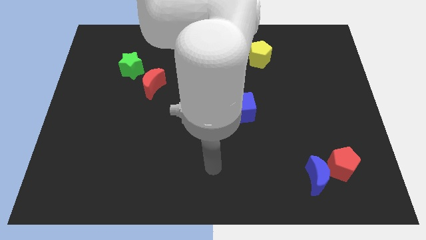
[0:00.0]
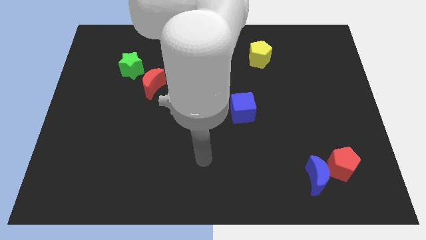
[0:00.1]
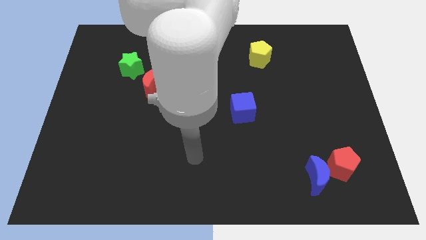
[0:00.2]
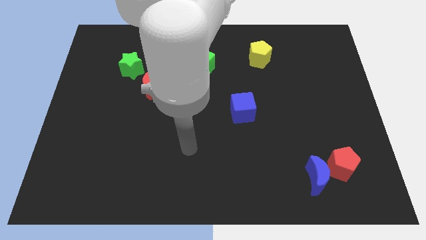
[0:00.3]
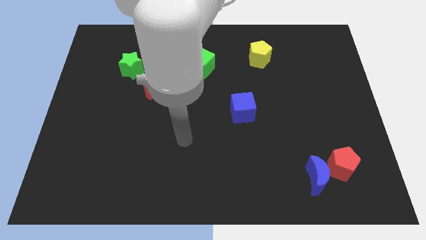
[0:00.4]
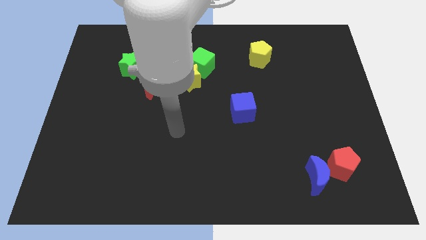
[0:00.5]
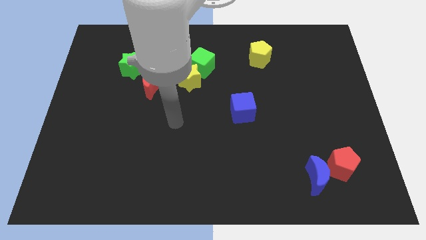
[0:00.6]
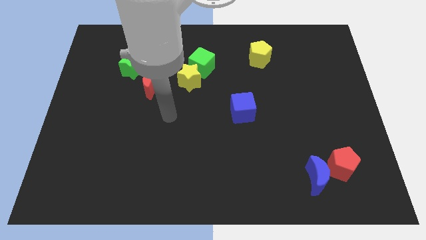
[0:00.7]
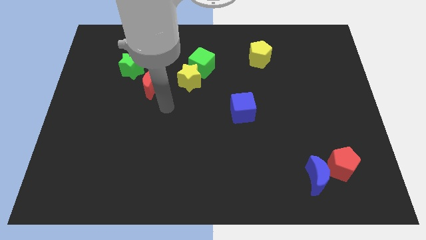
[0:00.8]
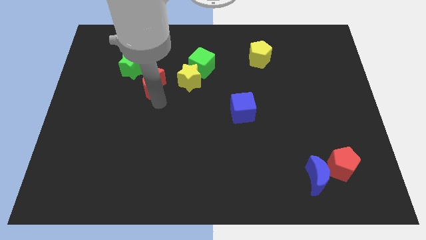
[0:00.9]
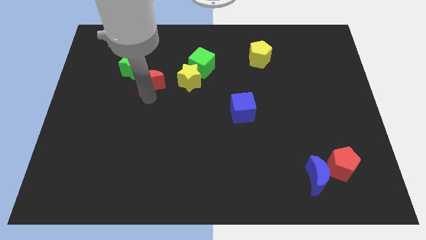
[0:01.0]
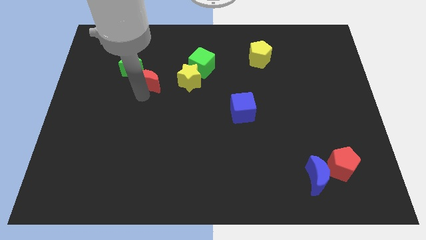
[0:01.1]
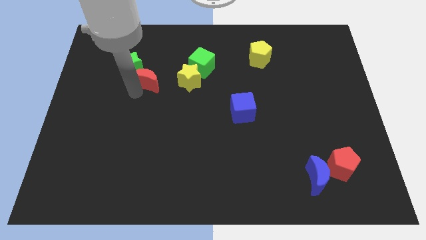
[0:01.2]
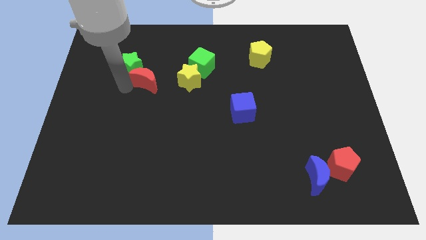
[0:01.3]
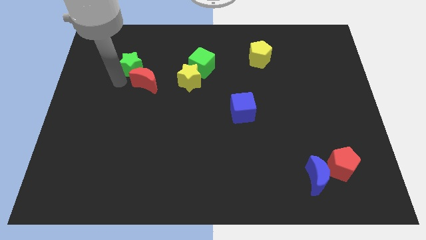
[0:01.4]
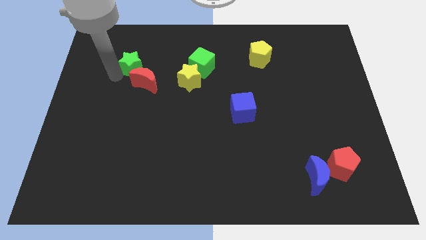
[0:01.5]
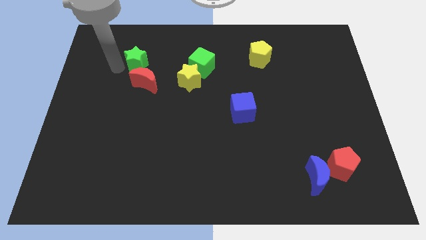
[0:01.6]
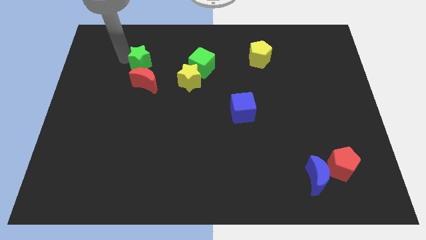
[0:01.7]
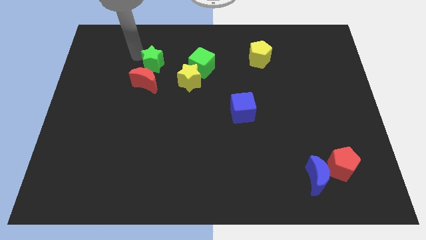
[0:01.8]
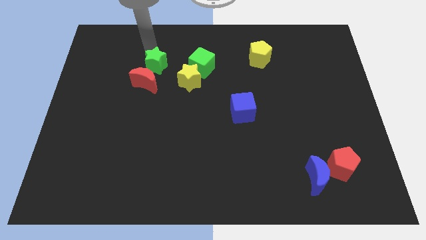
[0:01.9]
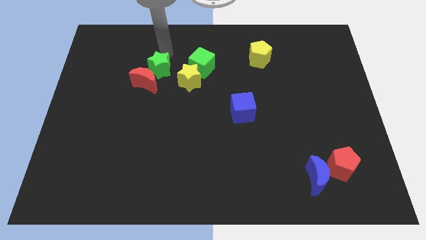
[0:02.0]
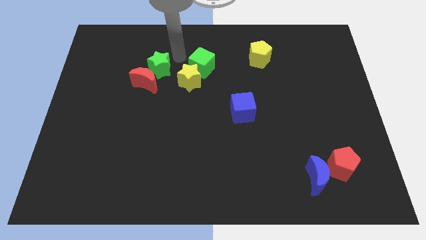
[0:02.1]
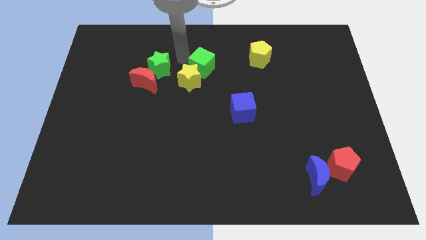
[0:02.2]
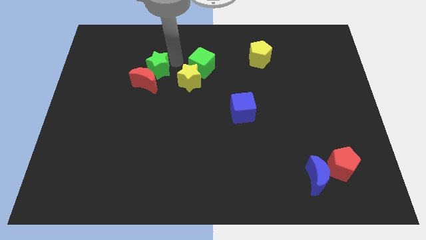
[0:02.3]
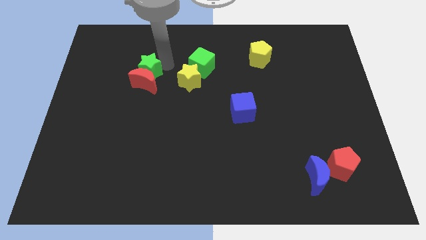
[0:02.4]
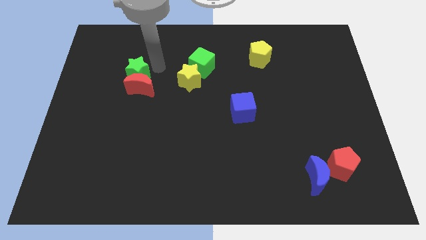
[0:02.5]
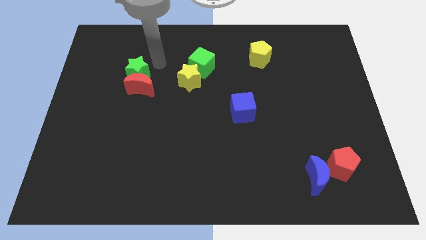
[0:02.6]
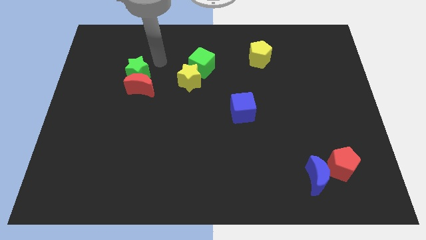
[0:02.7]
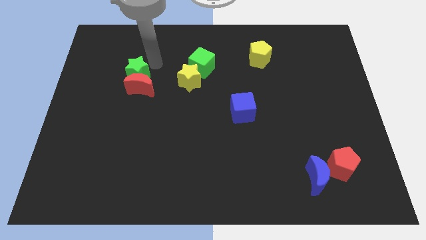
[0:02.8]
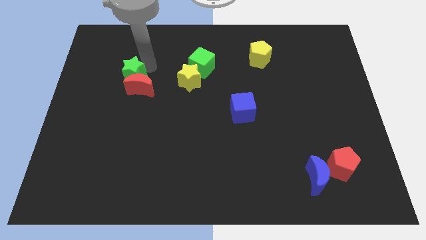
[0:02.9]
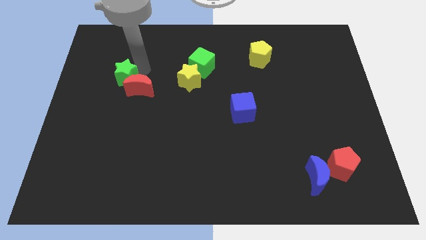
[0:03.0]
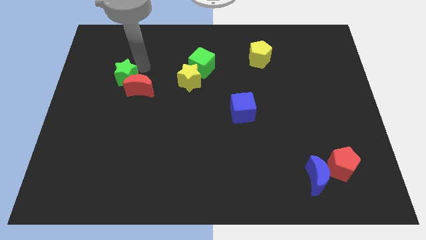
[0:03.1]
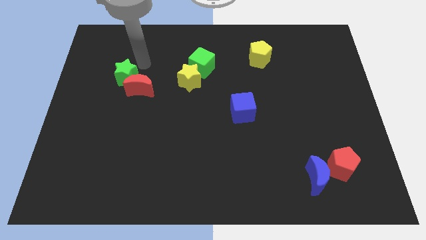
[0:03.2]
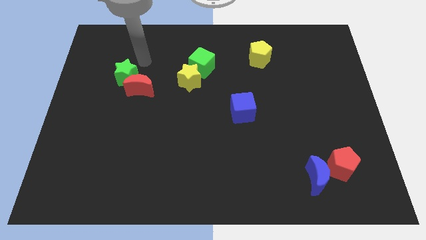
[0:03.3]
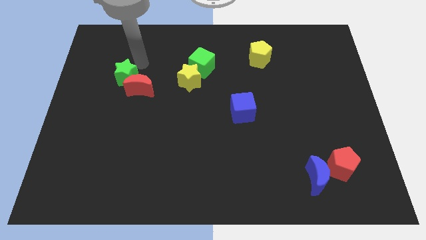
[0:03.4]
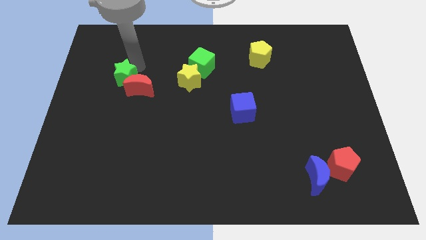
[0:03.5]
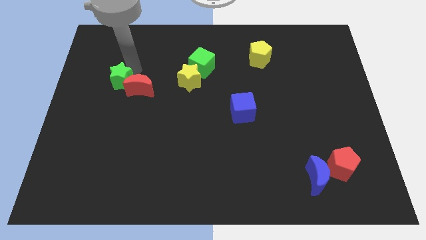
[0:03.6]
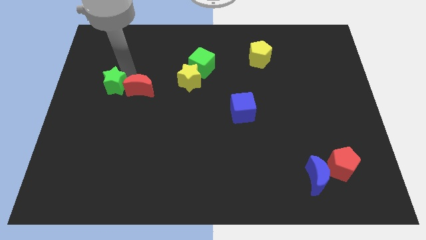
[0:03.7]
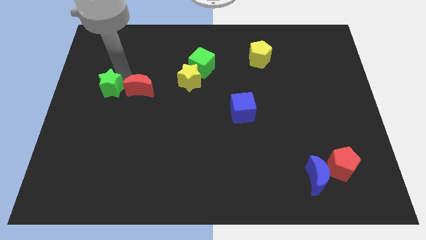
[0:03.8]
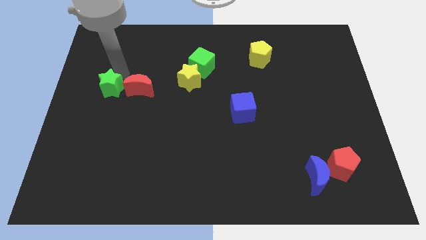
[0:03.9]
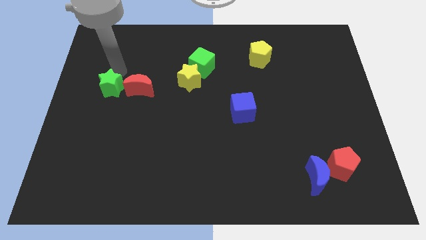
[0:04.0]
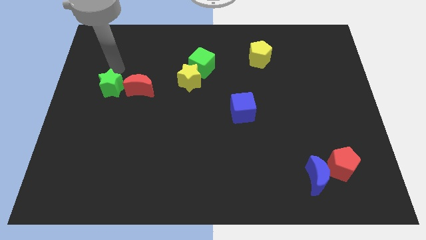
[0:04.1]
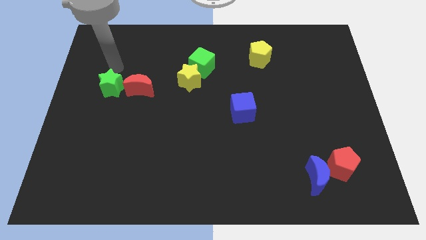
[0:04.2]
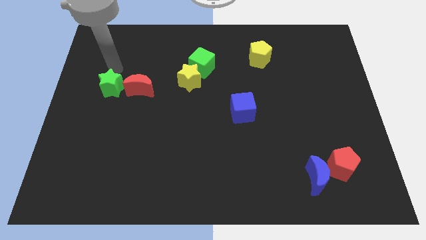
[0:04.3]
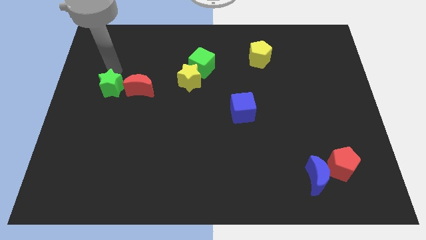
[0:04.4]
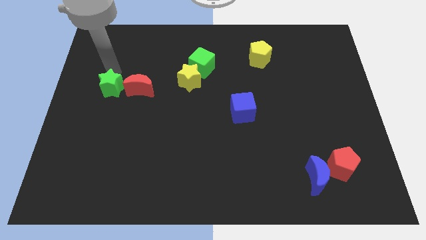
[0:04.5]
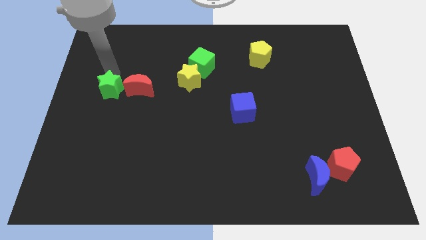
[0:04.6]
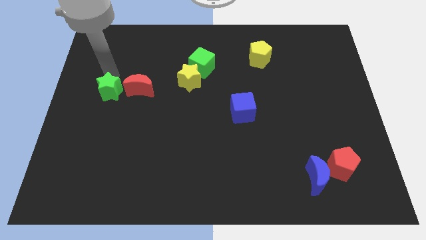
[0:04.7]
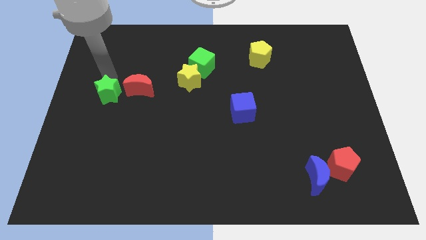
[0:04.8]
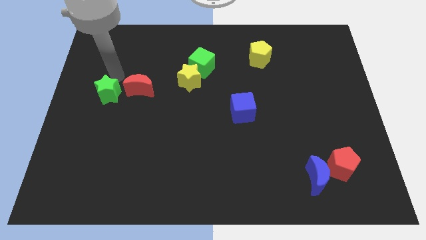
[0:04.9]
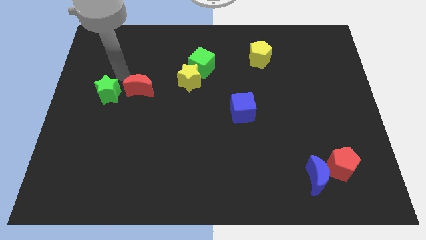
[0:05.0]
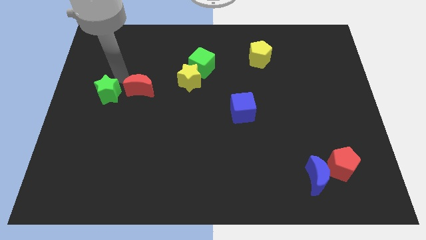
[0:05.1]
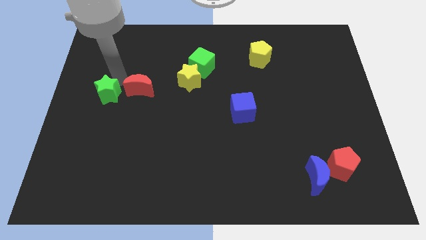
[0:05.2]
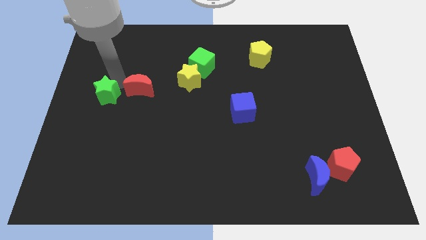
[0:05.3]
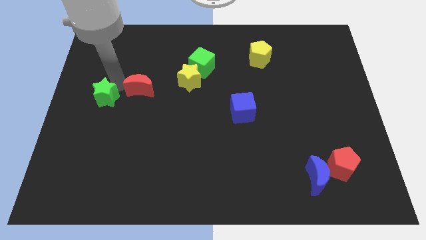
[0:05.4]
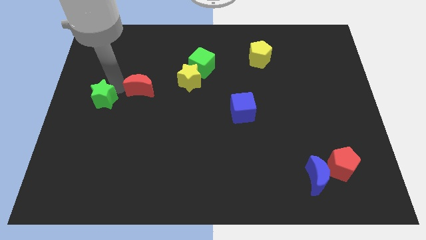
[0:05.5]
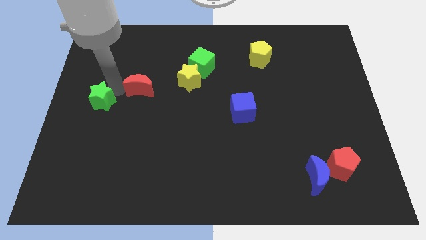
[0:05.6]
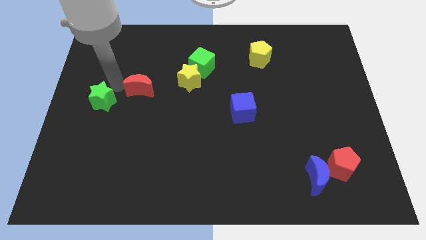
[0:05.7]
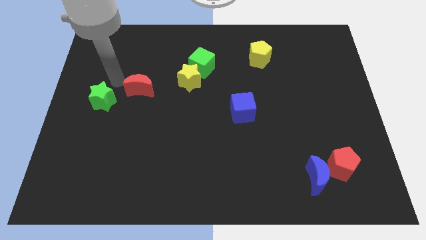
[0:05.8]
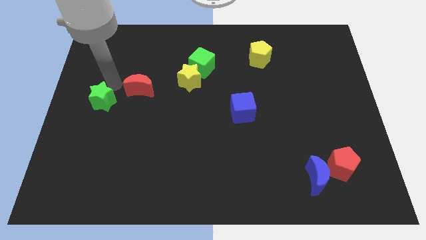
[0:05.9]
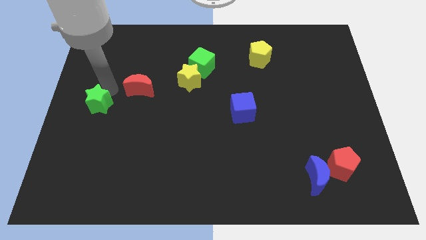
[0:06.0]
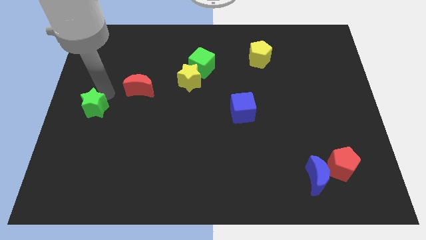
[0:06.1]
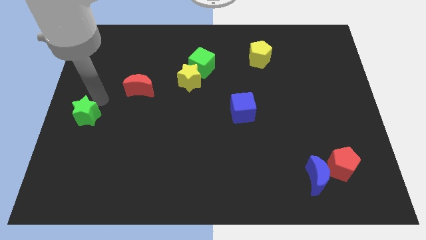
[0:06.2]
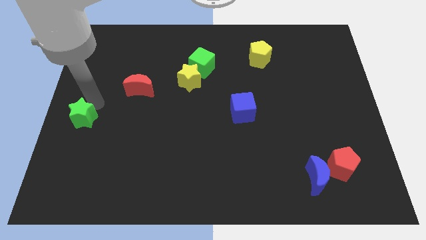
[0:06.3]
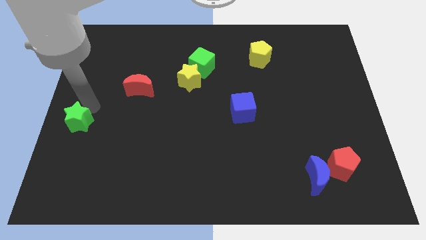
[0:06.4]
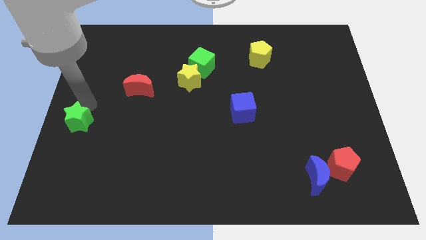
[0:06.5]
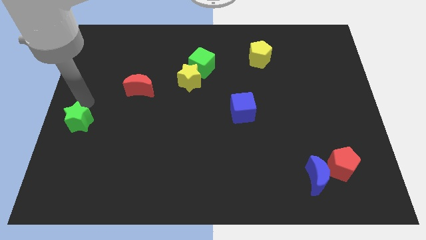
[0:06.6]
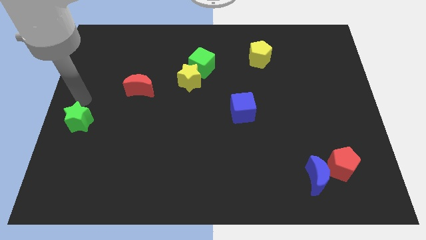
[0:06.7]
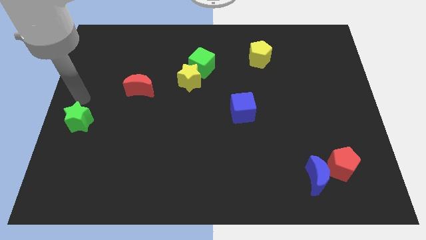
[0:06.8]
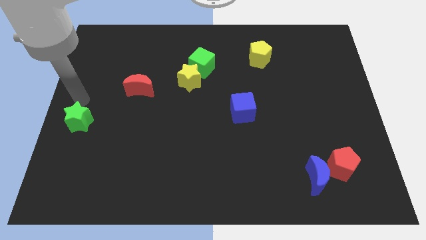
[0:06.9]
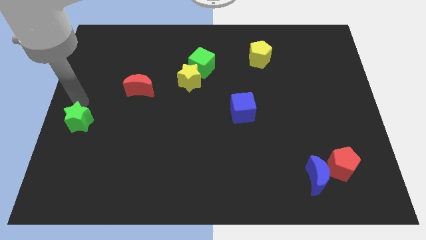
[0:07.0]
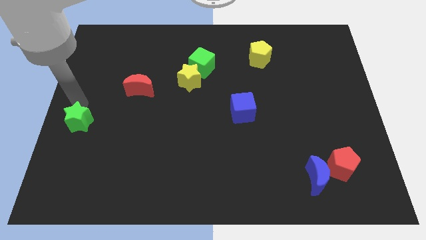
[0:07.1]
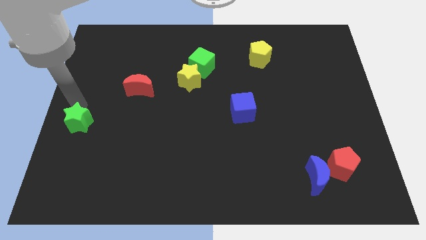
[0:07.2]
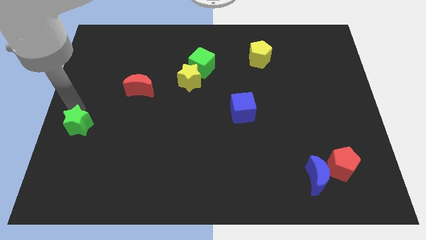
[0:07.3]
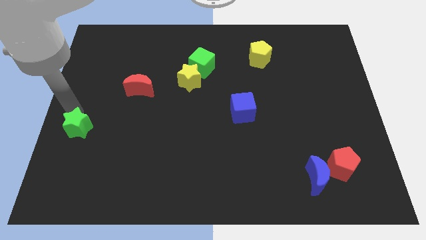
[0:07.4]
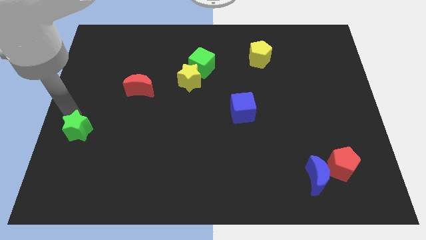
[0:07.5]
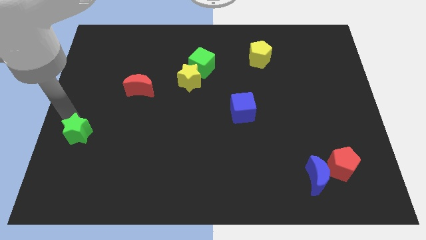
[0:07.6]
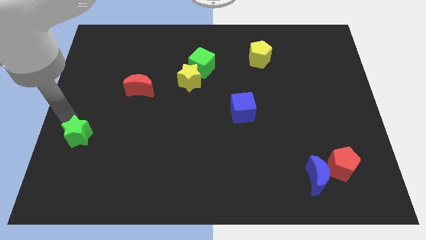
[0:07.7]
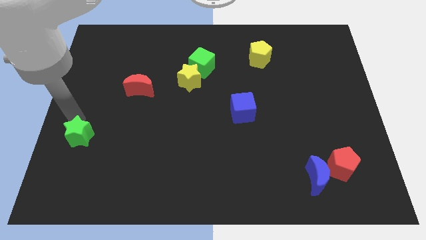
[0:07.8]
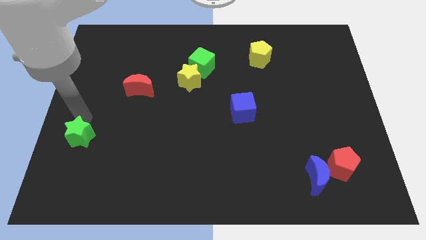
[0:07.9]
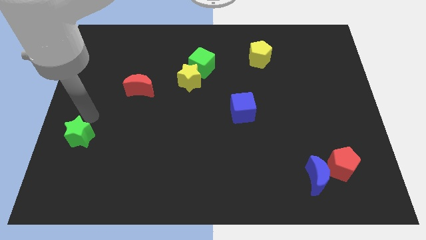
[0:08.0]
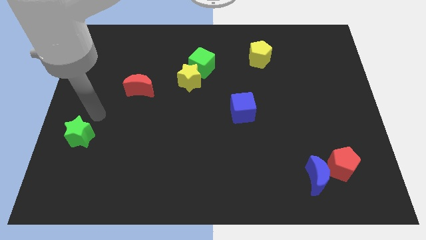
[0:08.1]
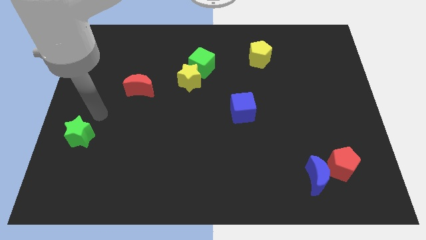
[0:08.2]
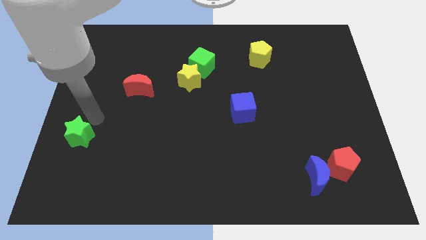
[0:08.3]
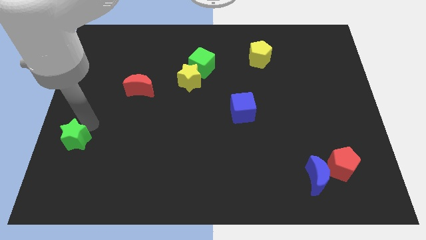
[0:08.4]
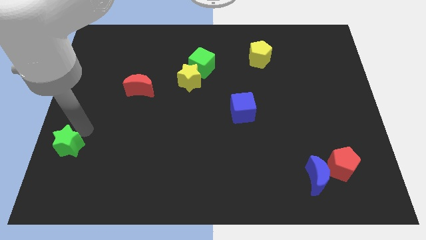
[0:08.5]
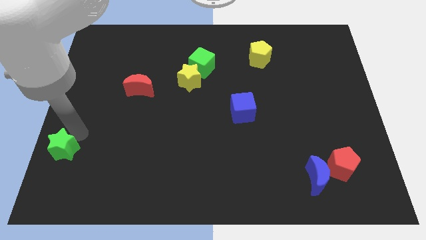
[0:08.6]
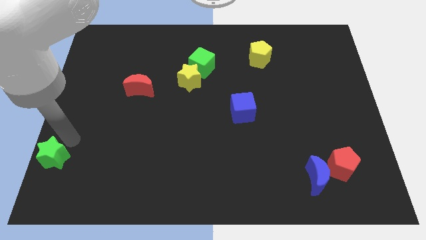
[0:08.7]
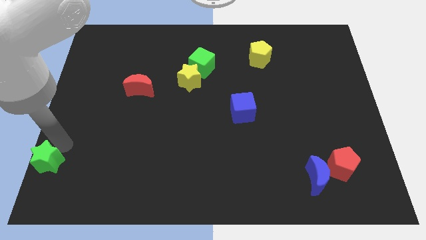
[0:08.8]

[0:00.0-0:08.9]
push the green star to the lower left corner
